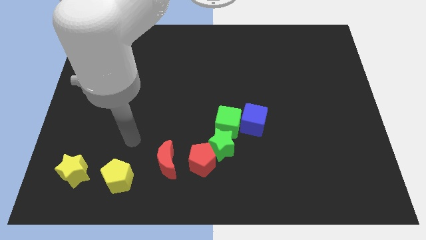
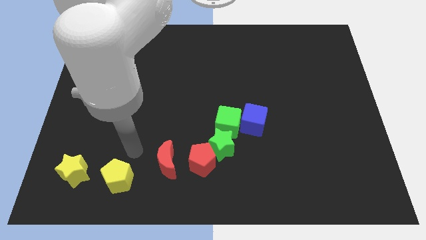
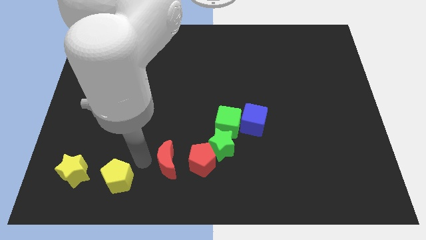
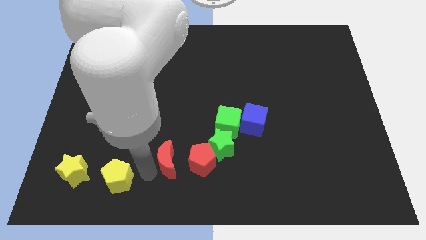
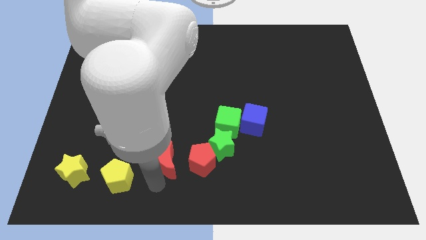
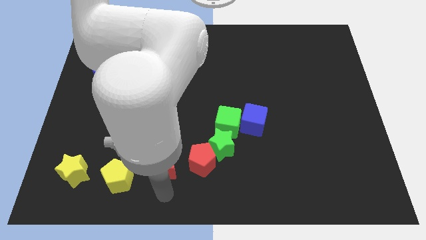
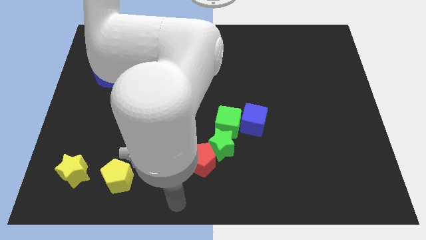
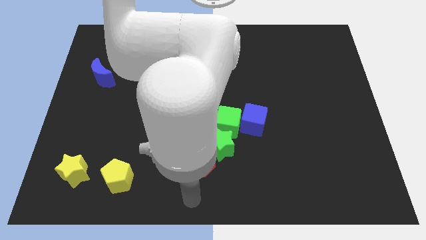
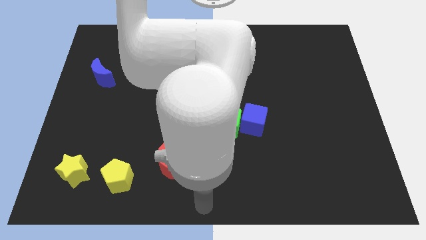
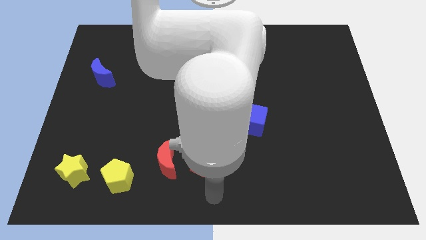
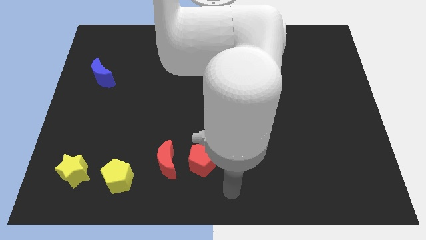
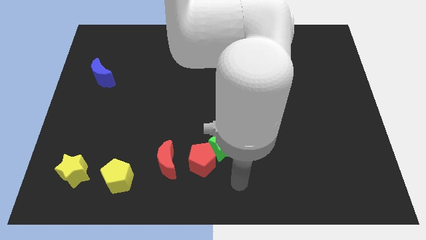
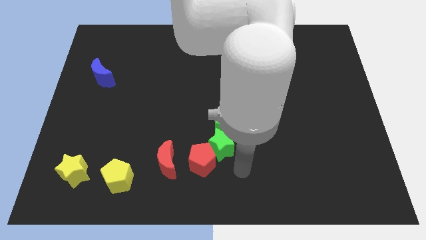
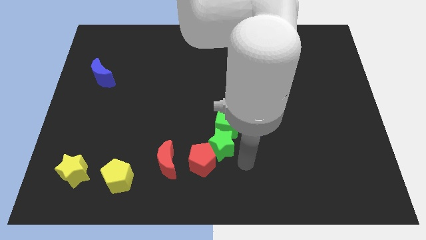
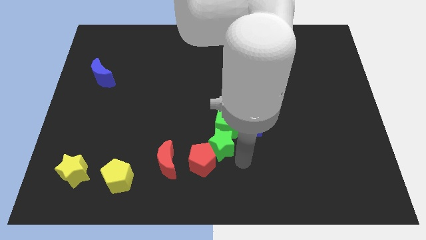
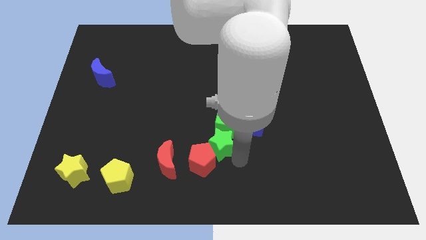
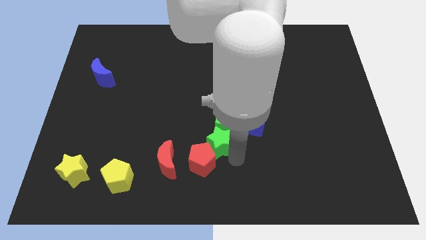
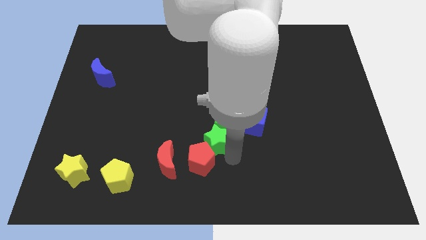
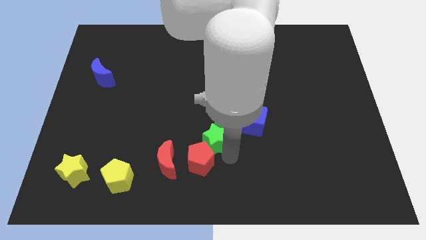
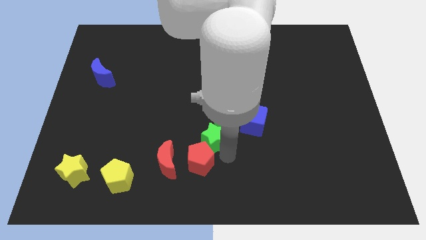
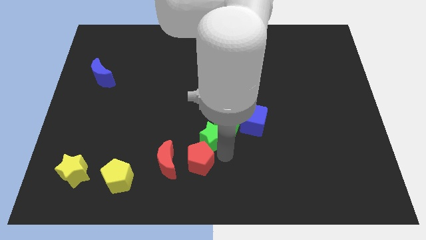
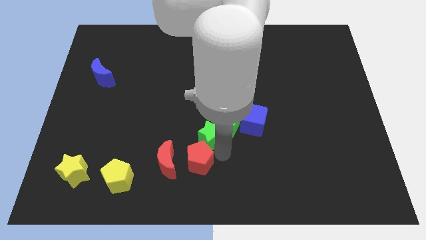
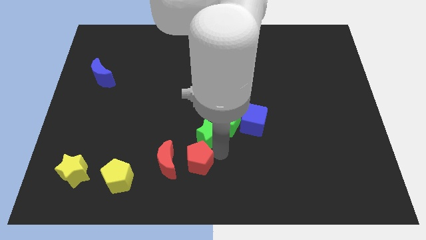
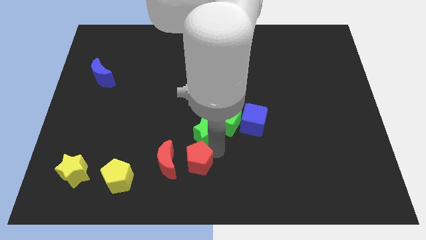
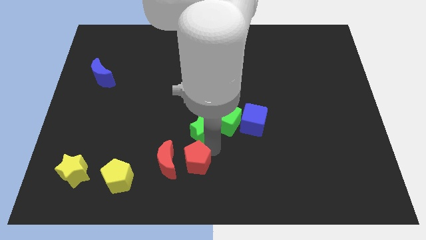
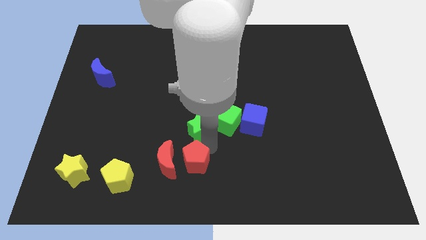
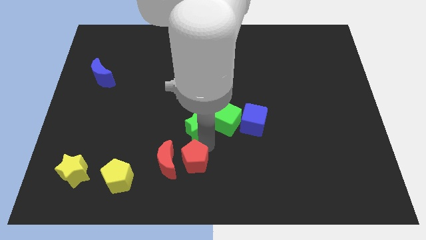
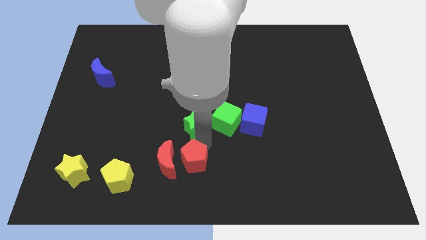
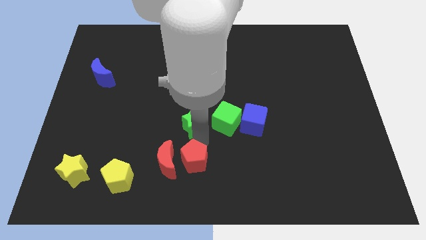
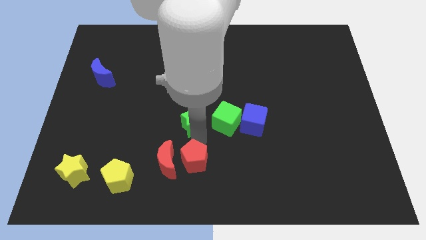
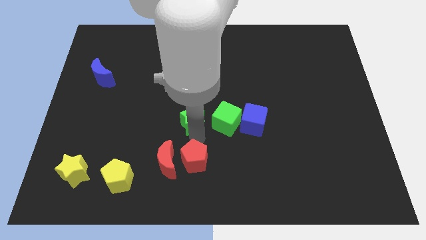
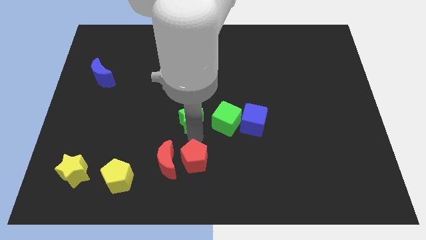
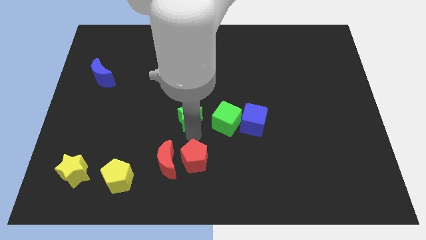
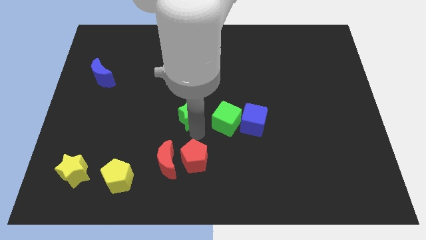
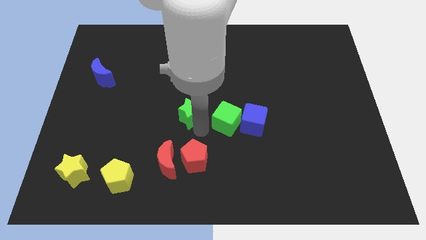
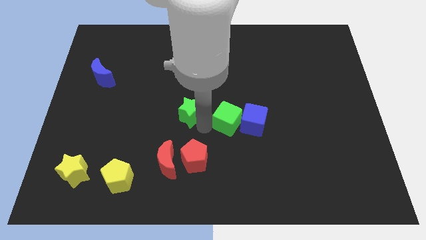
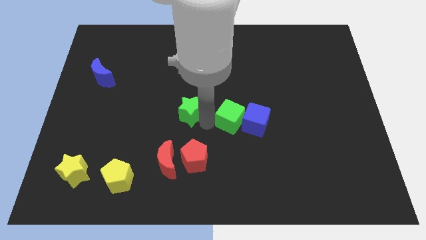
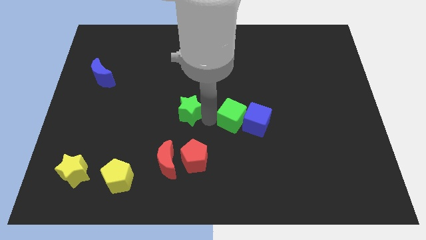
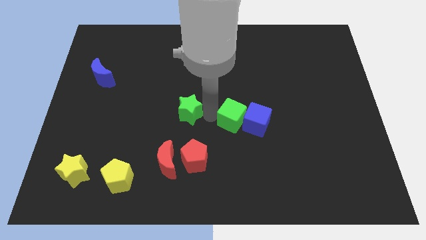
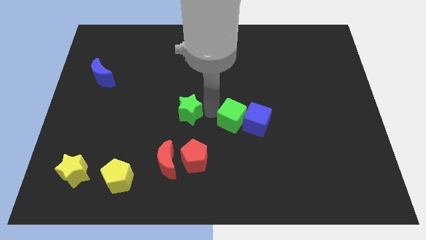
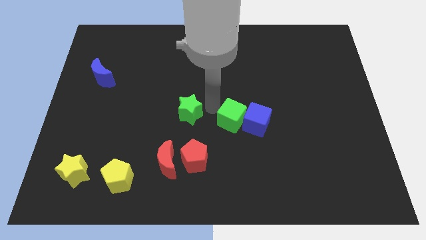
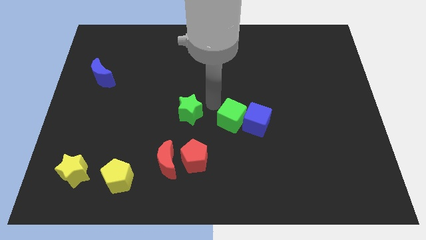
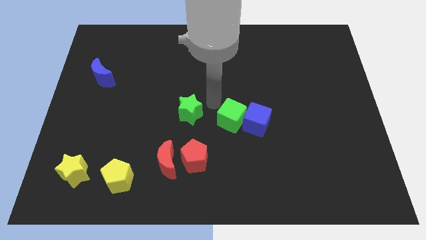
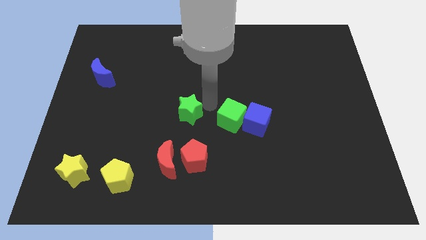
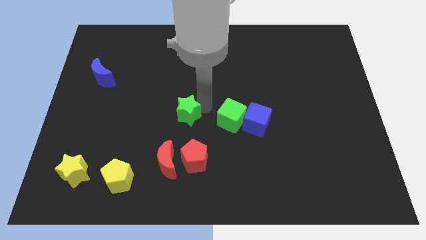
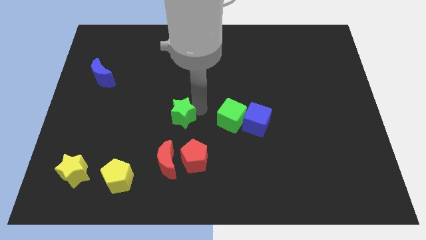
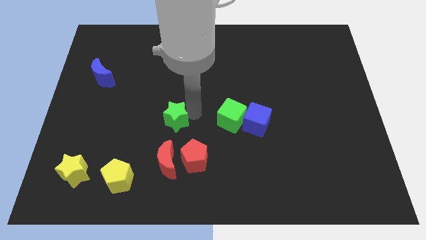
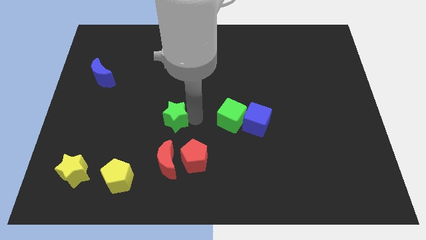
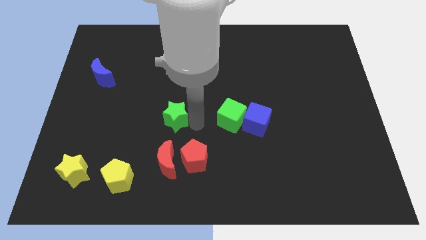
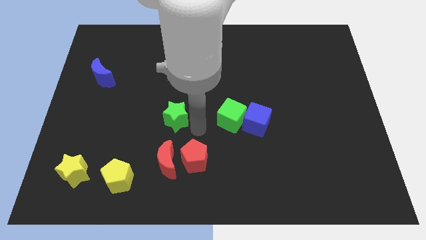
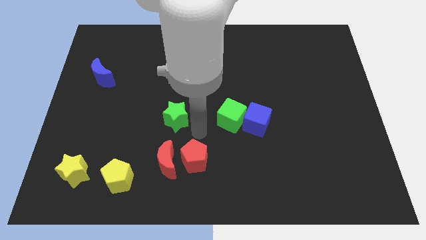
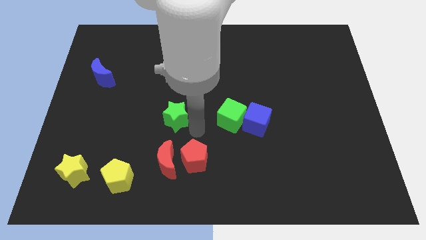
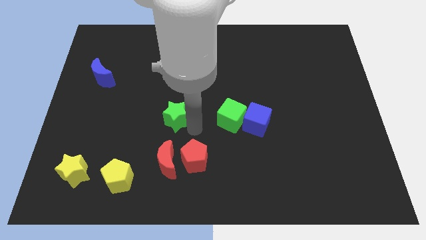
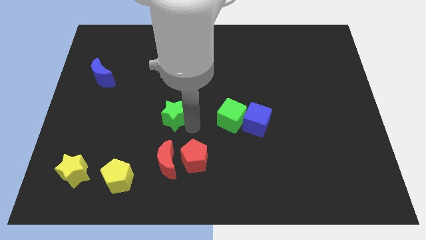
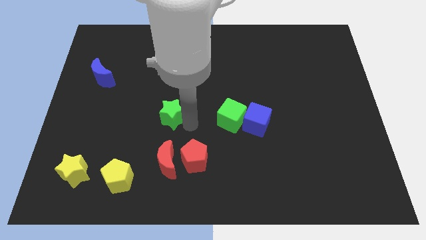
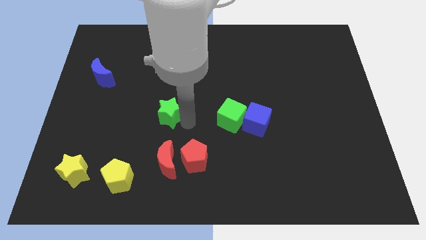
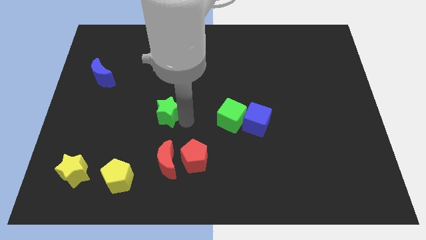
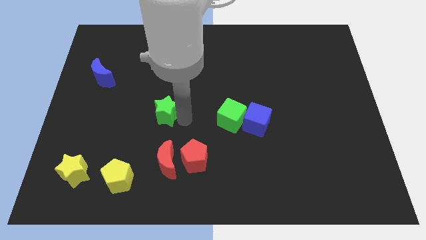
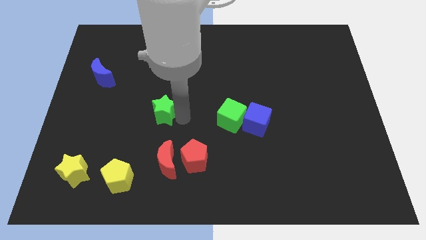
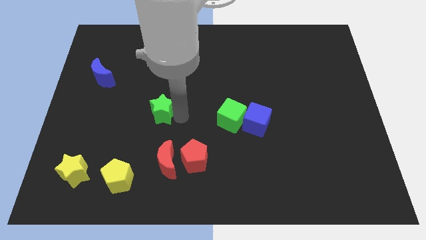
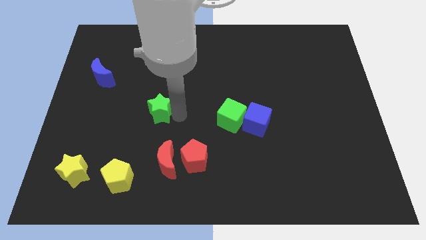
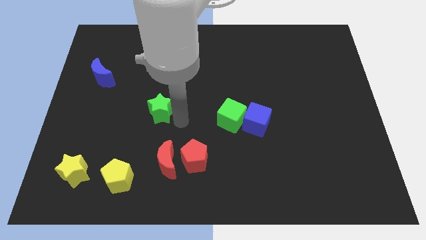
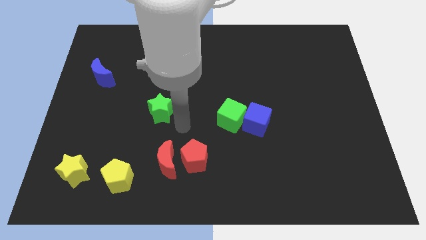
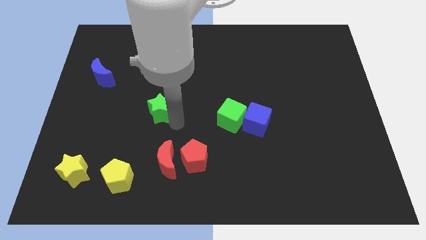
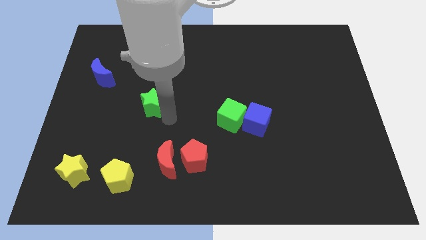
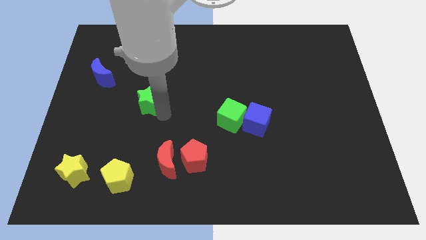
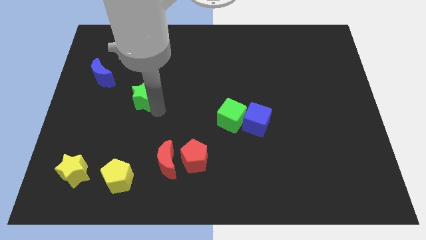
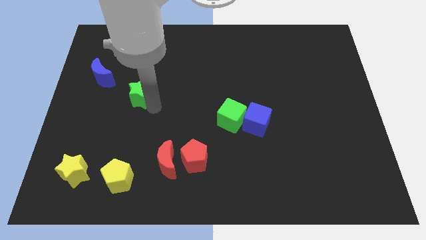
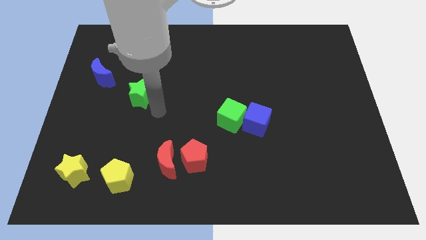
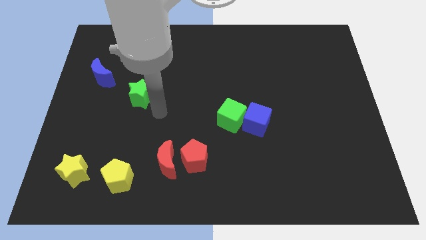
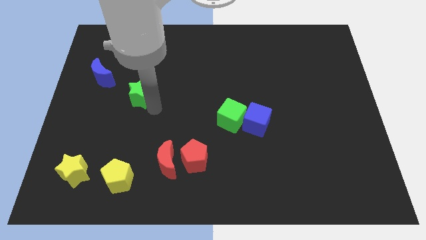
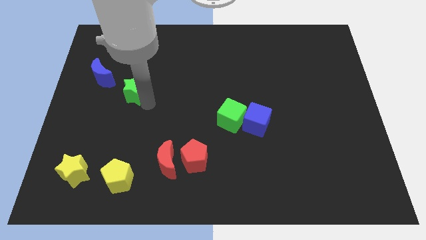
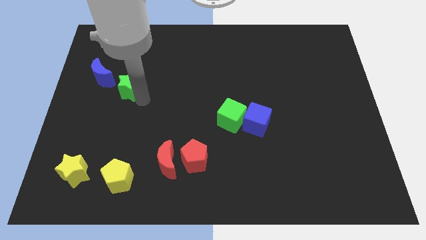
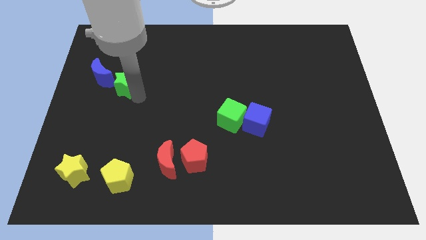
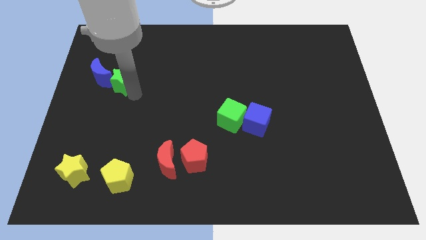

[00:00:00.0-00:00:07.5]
move the green star next to the blue moon
